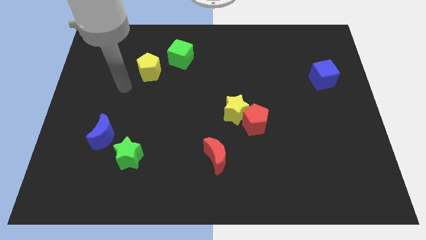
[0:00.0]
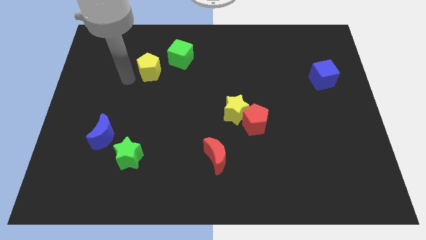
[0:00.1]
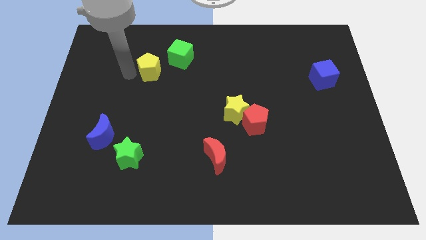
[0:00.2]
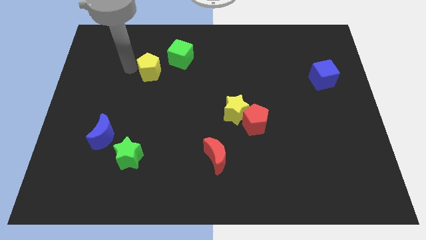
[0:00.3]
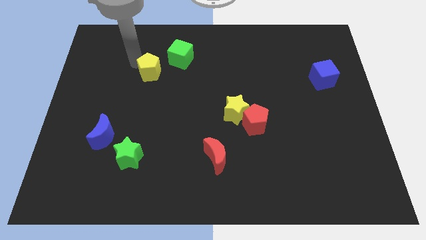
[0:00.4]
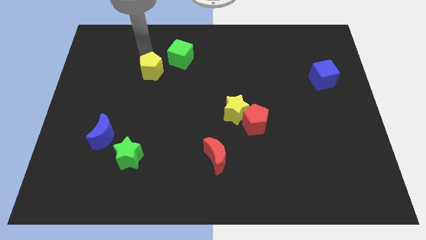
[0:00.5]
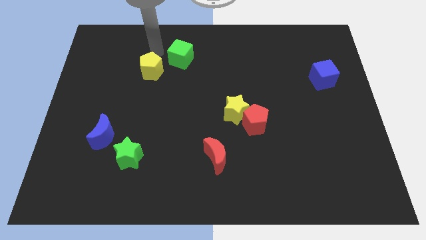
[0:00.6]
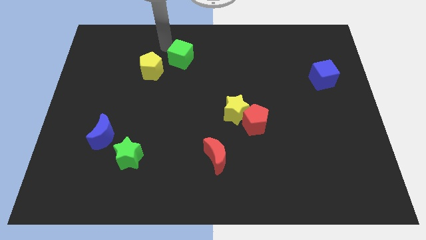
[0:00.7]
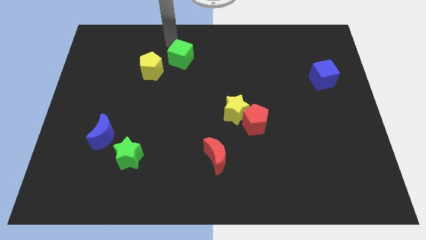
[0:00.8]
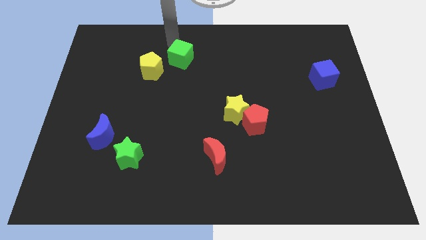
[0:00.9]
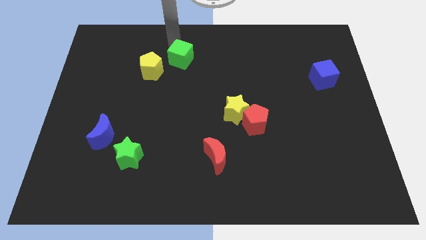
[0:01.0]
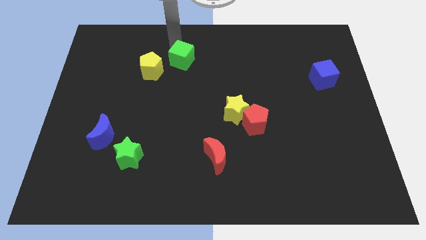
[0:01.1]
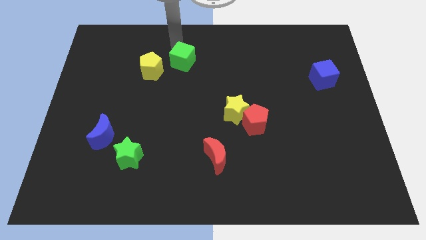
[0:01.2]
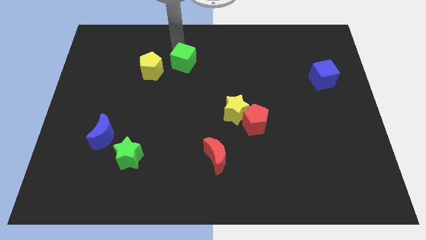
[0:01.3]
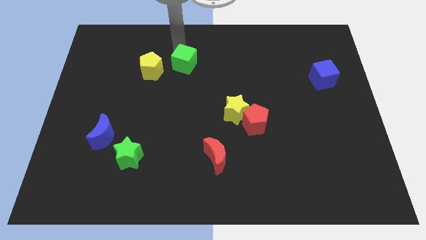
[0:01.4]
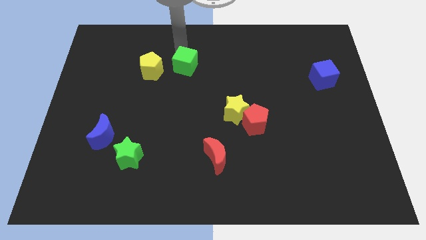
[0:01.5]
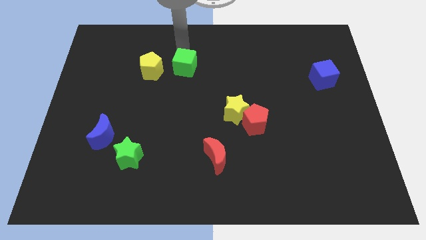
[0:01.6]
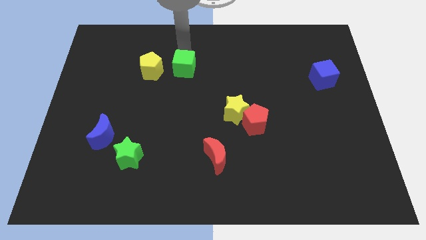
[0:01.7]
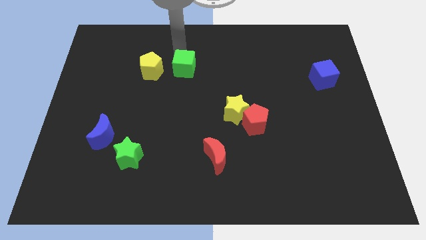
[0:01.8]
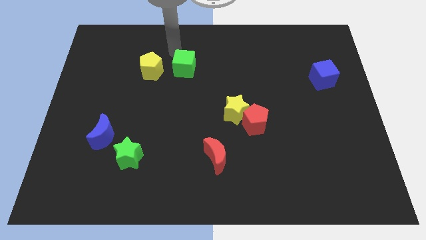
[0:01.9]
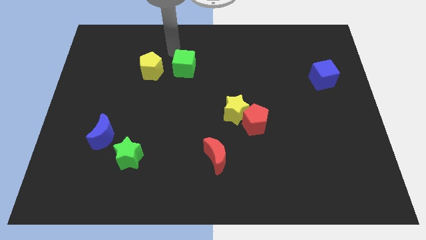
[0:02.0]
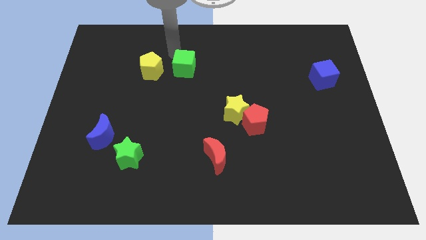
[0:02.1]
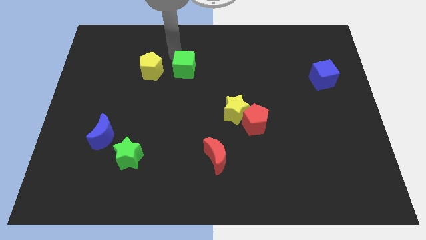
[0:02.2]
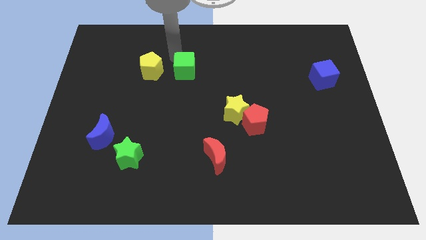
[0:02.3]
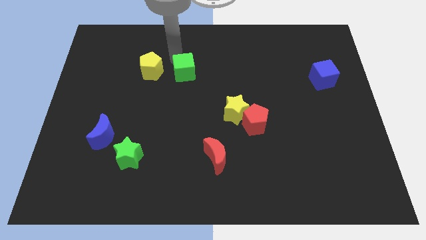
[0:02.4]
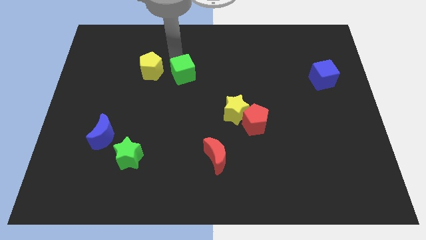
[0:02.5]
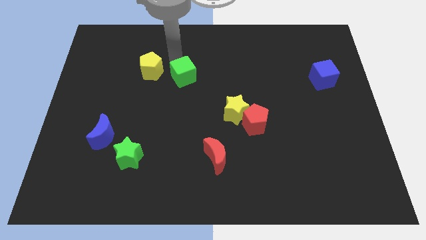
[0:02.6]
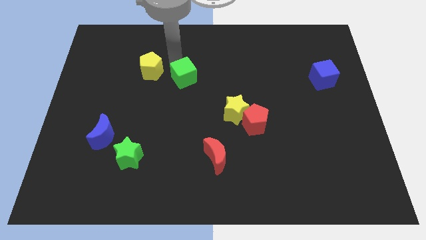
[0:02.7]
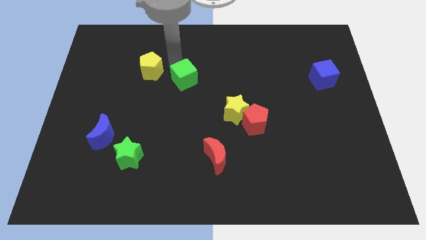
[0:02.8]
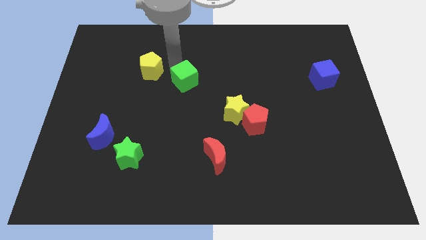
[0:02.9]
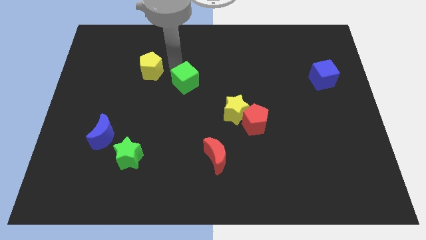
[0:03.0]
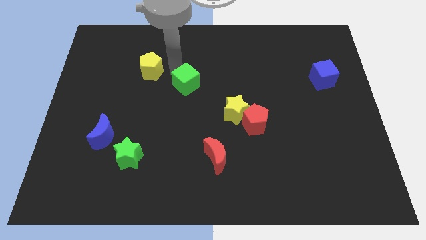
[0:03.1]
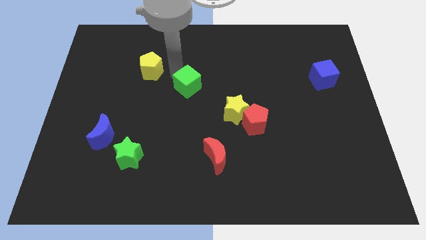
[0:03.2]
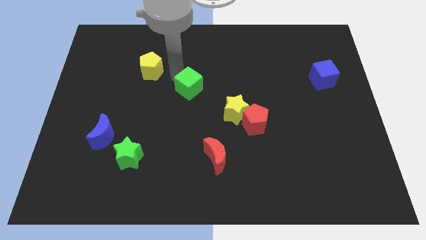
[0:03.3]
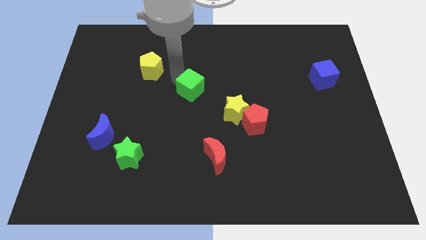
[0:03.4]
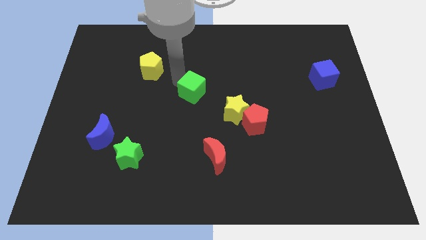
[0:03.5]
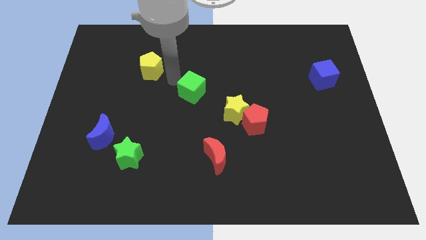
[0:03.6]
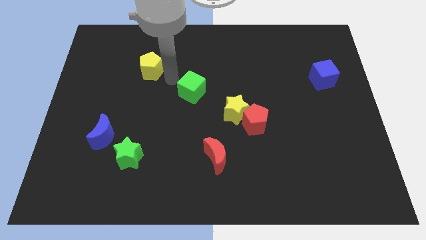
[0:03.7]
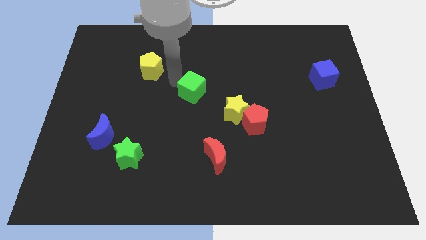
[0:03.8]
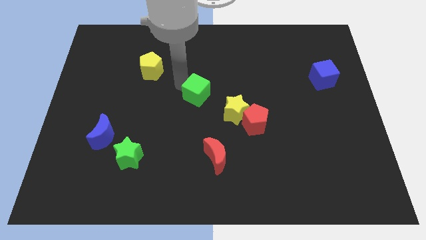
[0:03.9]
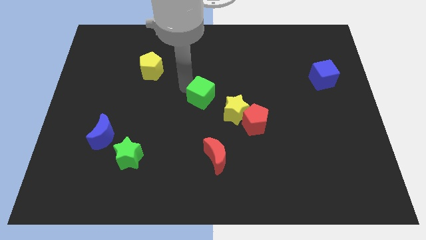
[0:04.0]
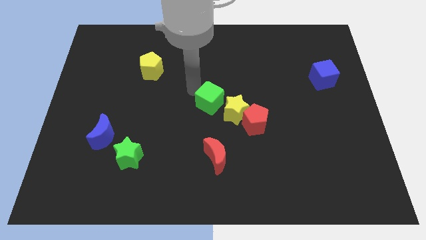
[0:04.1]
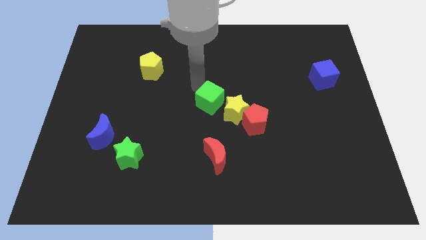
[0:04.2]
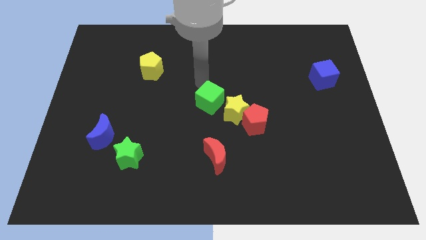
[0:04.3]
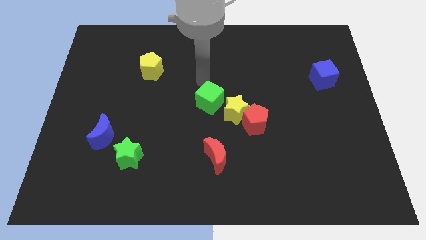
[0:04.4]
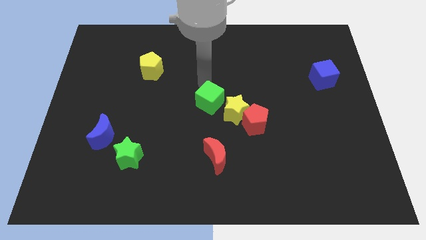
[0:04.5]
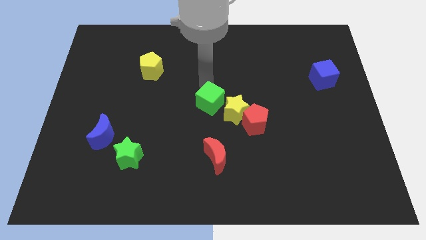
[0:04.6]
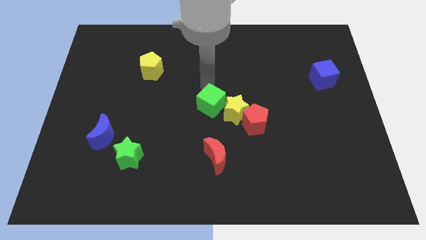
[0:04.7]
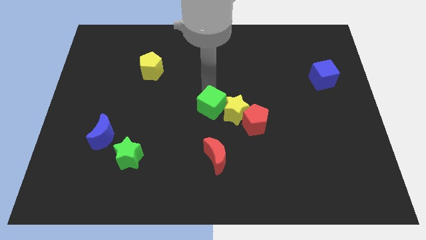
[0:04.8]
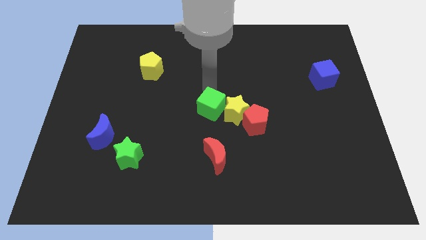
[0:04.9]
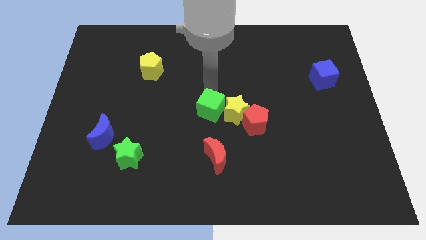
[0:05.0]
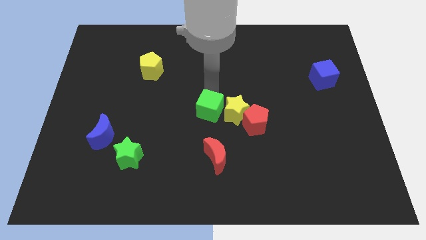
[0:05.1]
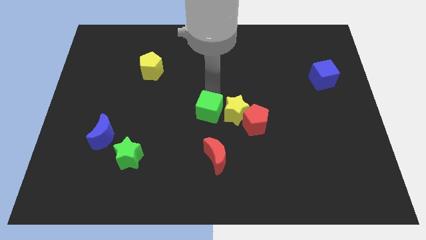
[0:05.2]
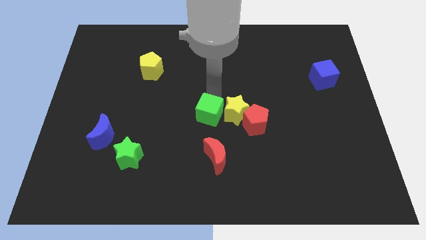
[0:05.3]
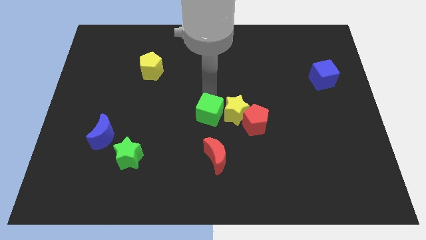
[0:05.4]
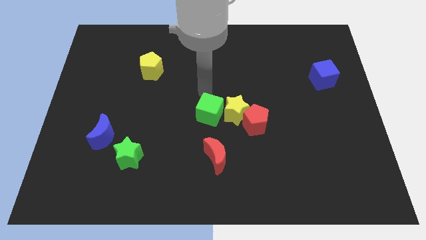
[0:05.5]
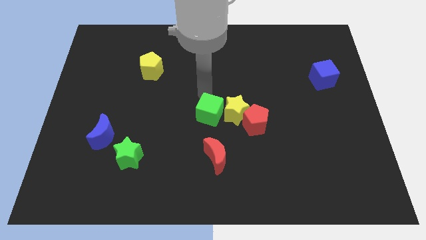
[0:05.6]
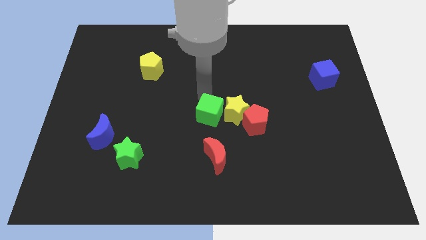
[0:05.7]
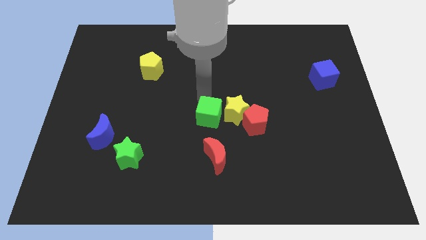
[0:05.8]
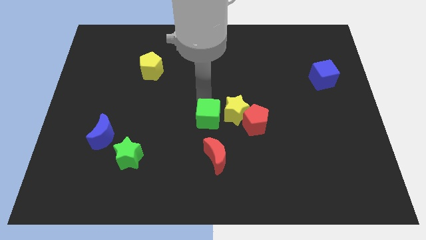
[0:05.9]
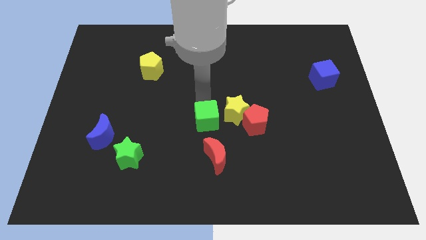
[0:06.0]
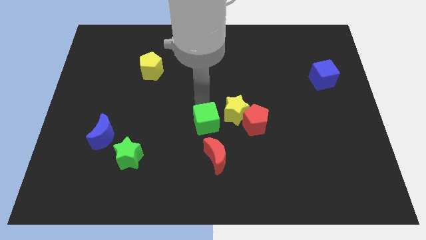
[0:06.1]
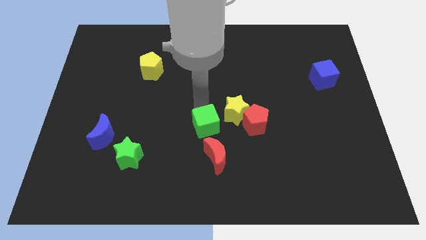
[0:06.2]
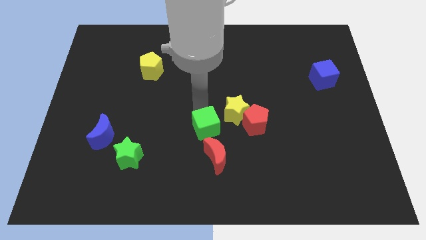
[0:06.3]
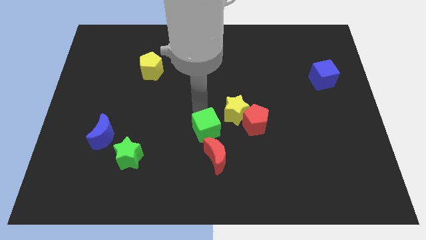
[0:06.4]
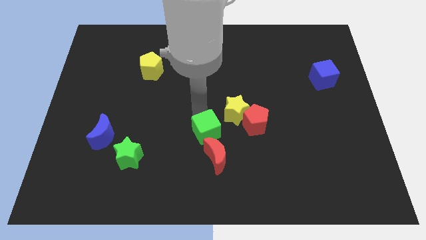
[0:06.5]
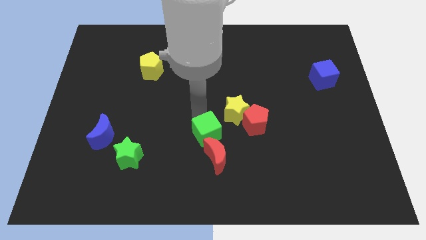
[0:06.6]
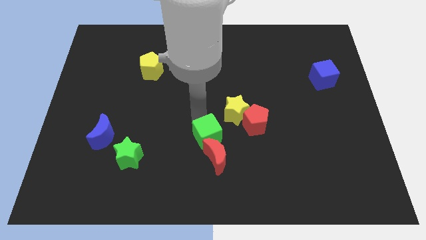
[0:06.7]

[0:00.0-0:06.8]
push the green cube next to the red moon
